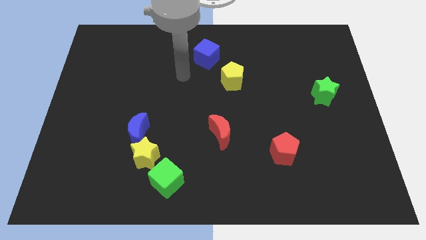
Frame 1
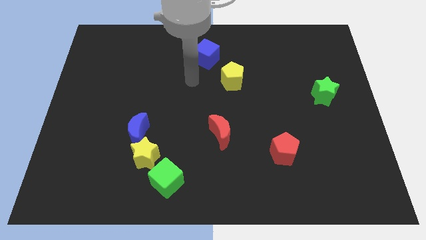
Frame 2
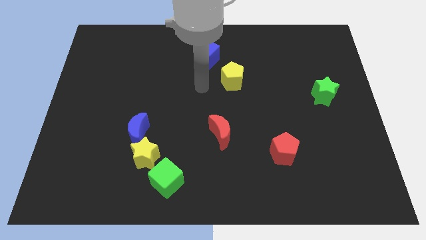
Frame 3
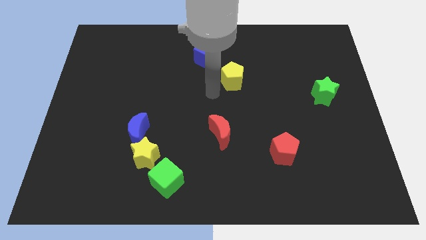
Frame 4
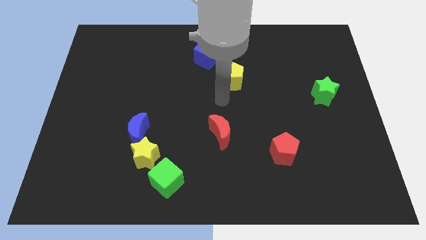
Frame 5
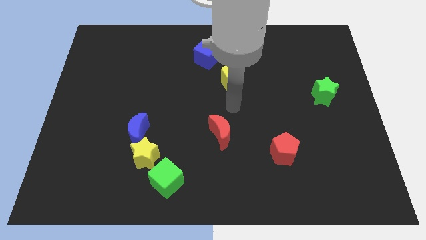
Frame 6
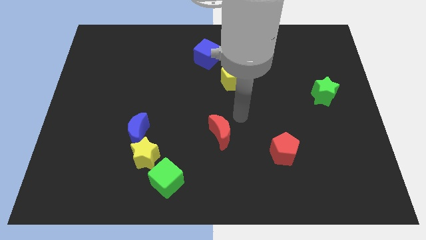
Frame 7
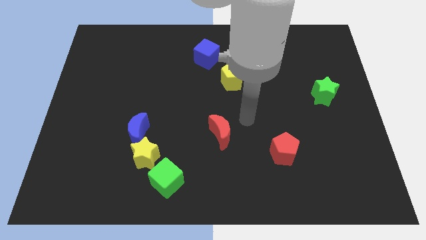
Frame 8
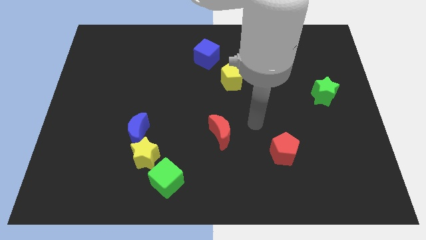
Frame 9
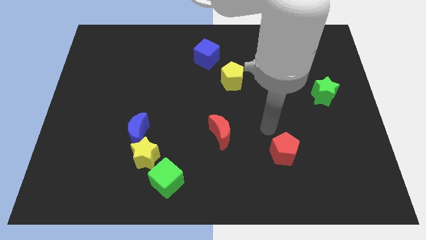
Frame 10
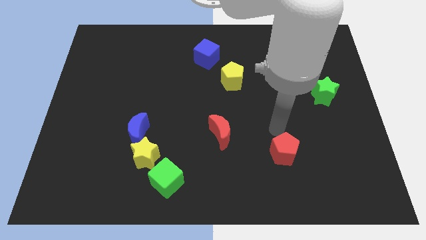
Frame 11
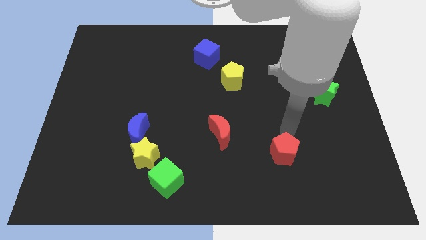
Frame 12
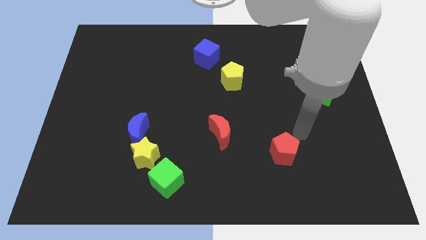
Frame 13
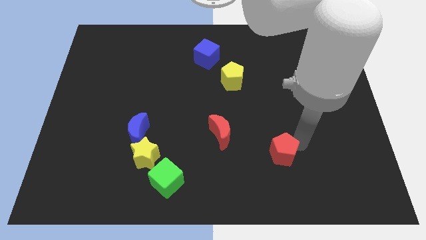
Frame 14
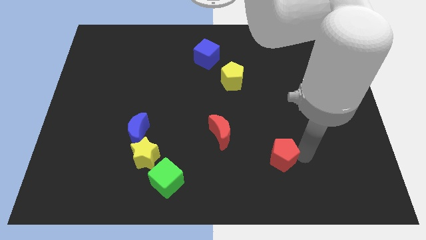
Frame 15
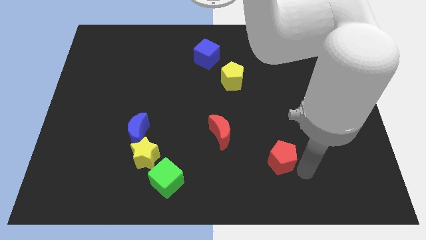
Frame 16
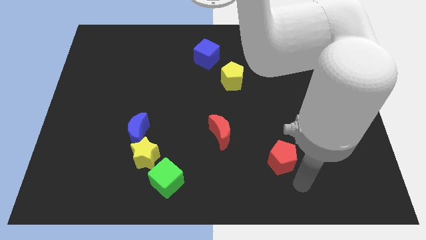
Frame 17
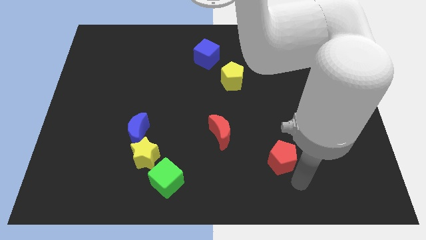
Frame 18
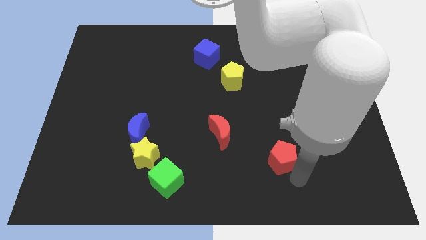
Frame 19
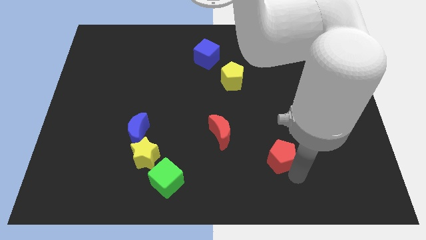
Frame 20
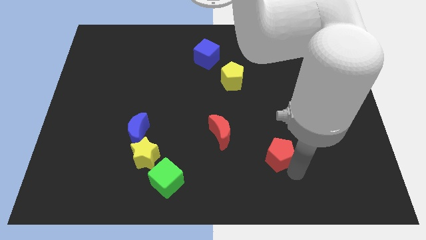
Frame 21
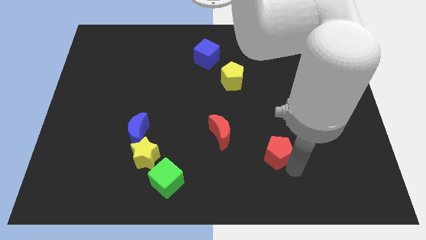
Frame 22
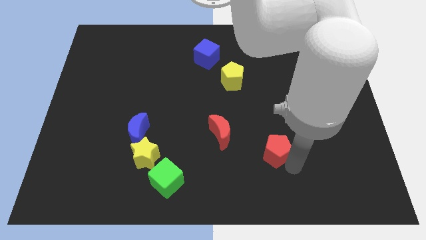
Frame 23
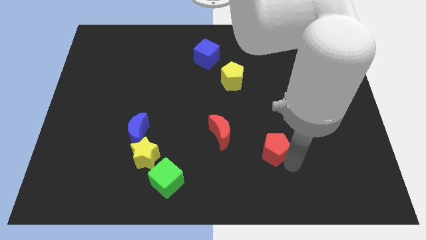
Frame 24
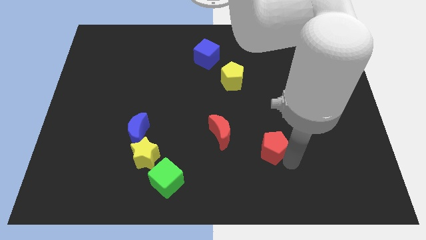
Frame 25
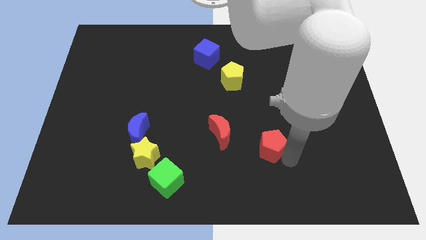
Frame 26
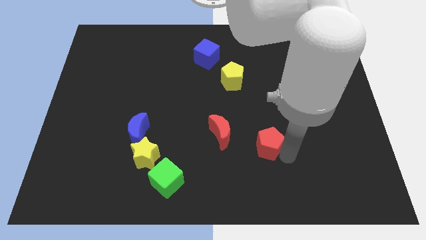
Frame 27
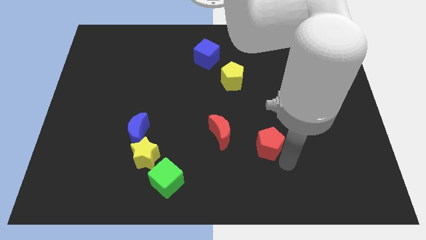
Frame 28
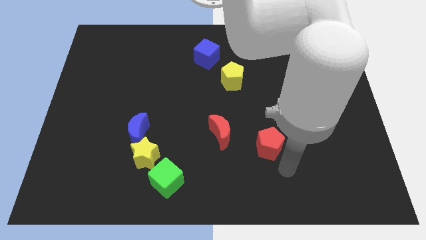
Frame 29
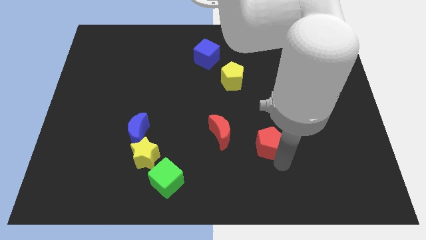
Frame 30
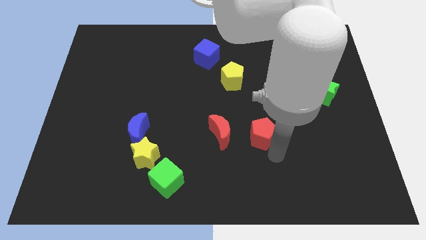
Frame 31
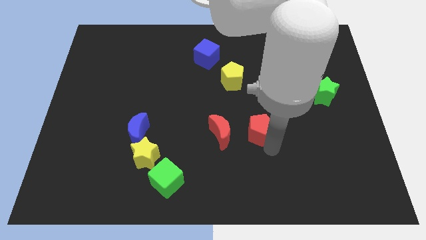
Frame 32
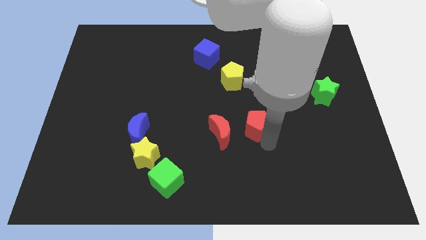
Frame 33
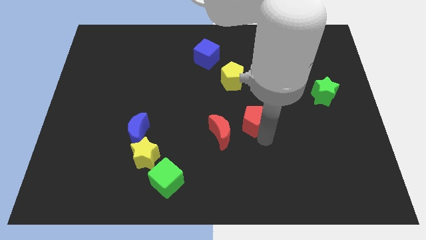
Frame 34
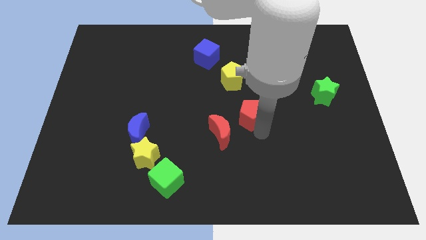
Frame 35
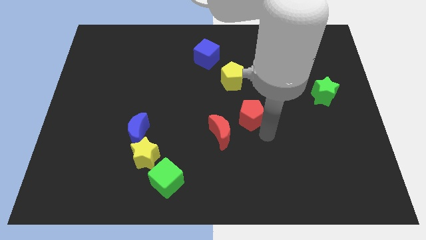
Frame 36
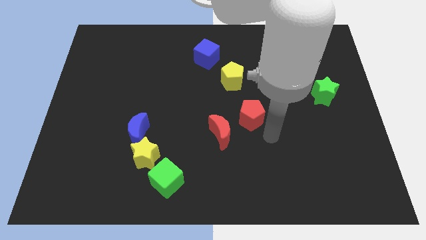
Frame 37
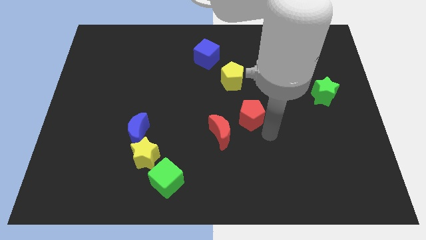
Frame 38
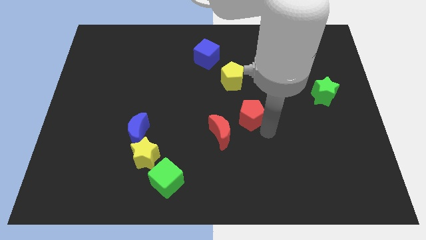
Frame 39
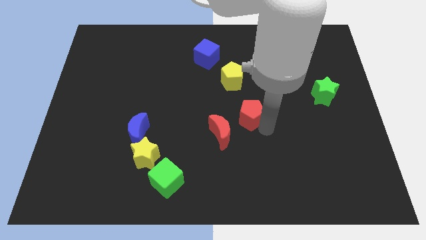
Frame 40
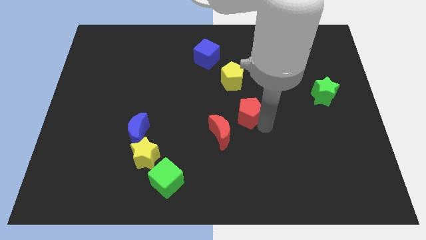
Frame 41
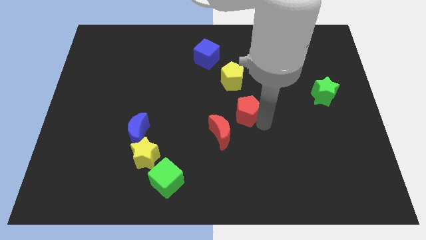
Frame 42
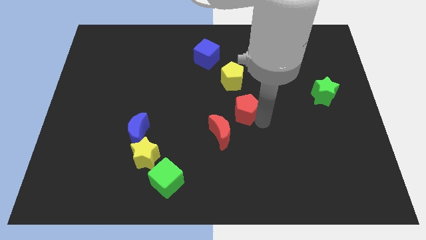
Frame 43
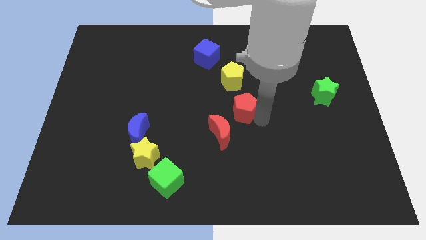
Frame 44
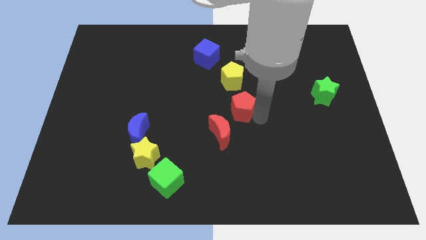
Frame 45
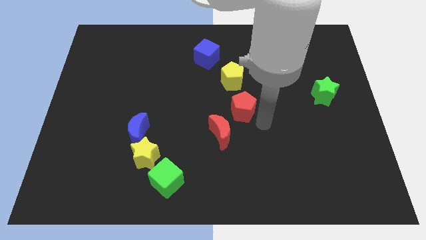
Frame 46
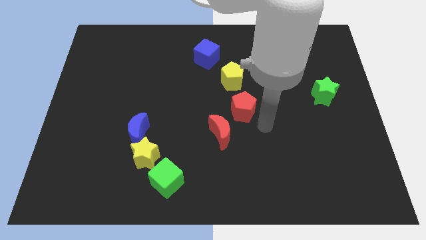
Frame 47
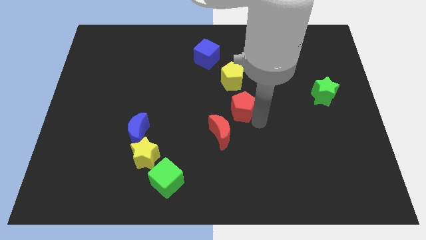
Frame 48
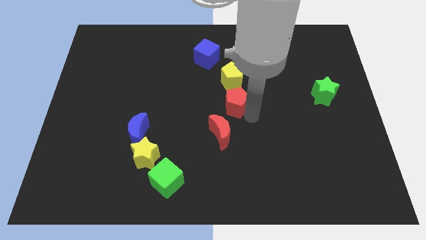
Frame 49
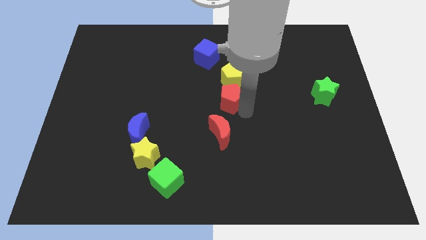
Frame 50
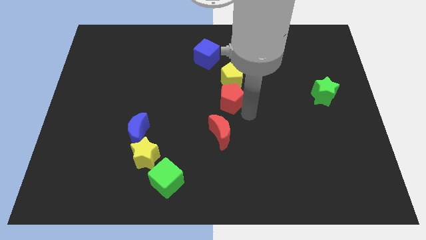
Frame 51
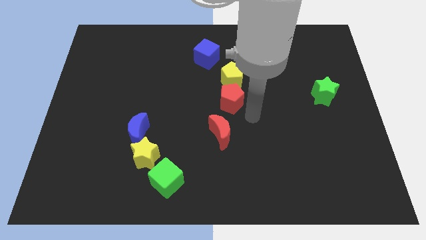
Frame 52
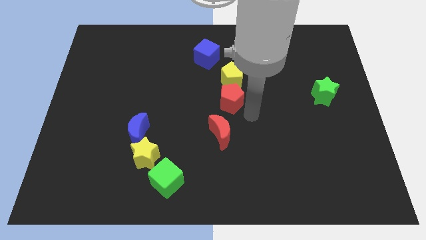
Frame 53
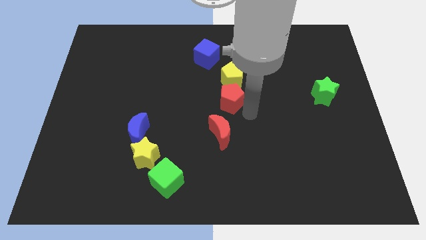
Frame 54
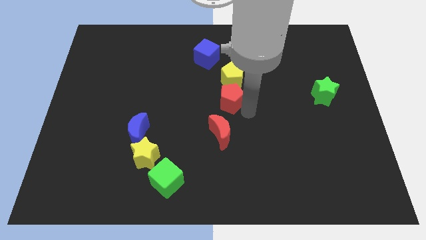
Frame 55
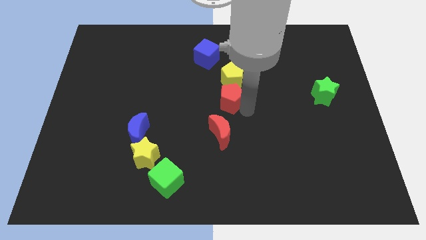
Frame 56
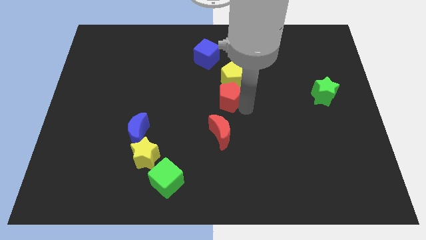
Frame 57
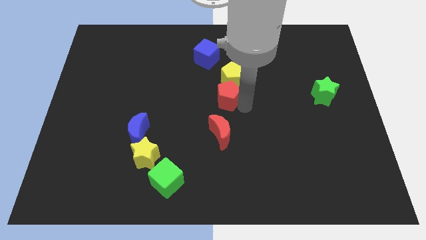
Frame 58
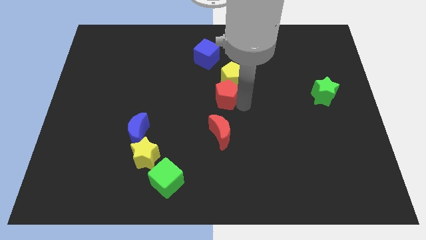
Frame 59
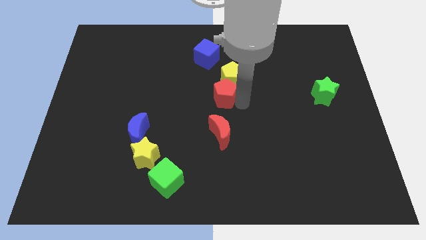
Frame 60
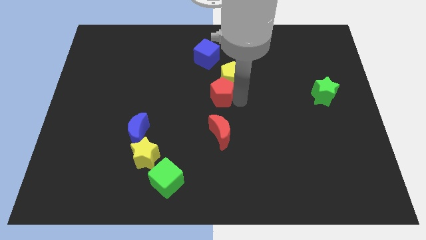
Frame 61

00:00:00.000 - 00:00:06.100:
push the red pentagon upwards and left

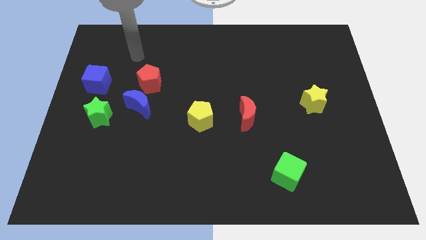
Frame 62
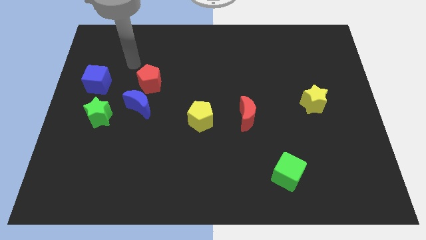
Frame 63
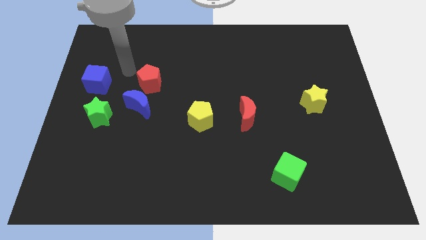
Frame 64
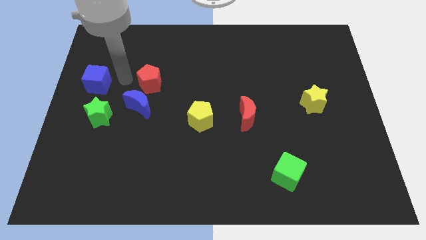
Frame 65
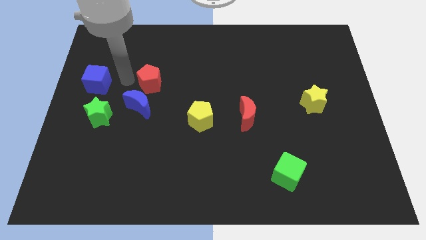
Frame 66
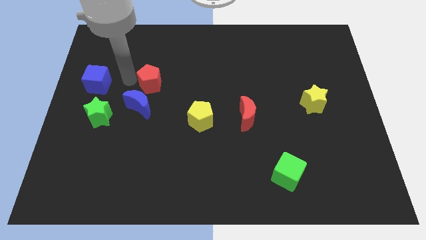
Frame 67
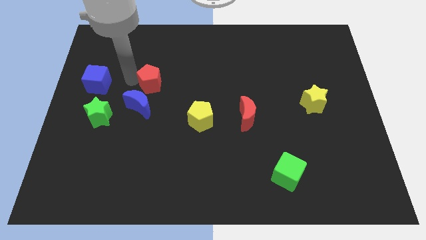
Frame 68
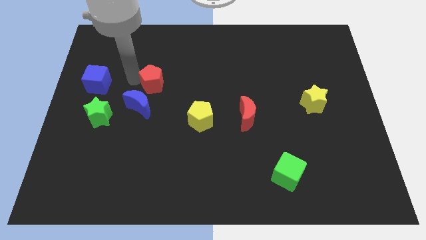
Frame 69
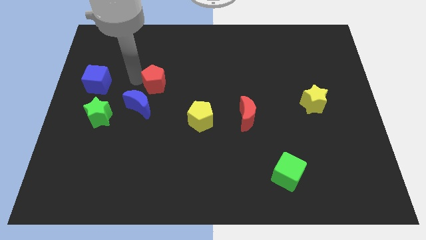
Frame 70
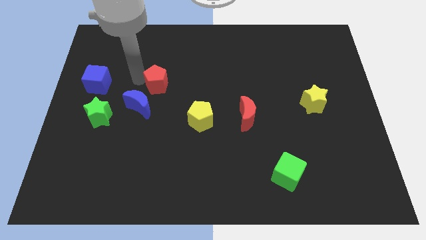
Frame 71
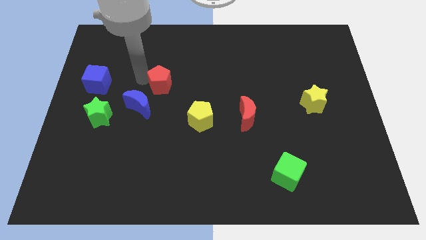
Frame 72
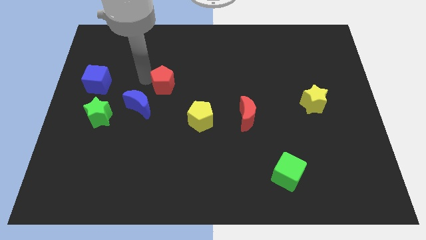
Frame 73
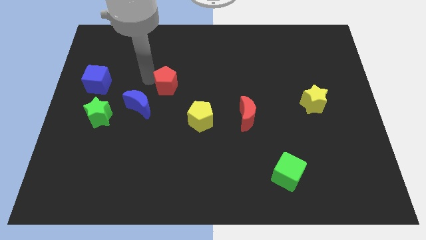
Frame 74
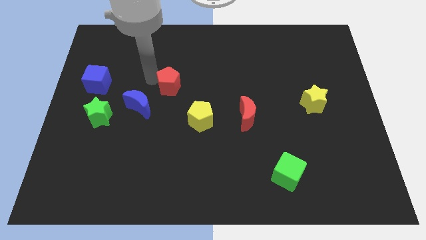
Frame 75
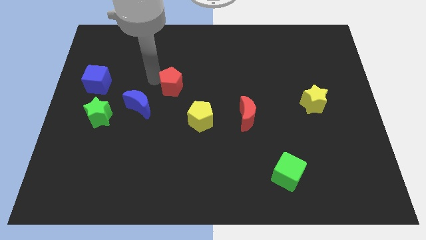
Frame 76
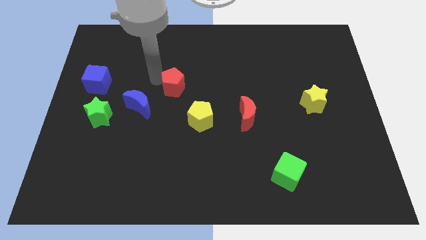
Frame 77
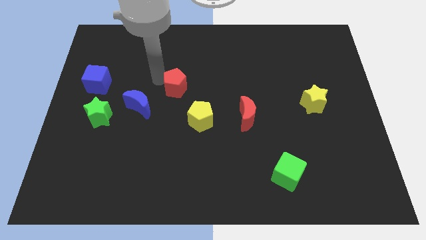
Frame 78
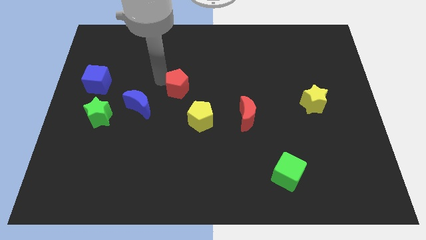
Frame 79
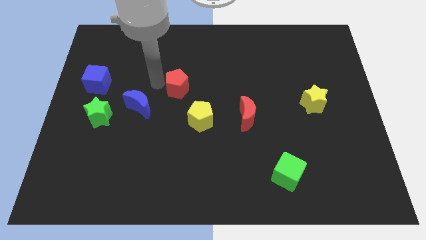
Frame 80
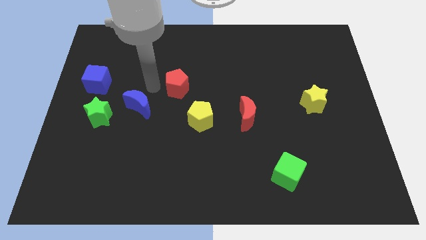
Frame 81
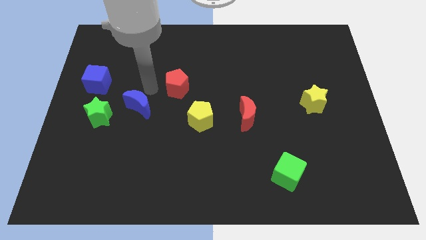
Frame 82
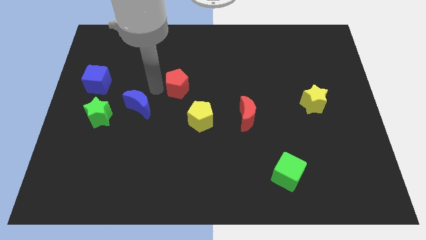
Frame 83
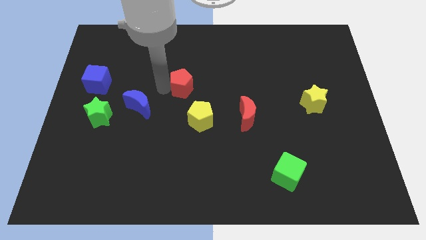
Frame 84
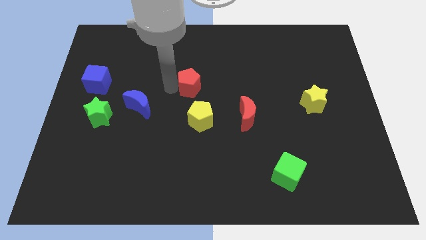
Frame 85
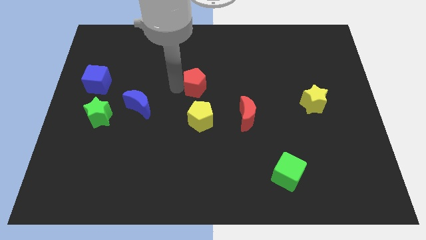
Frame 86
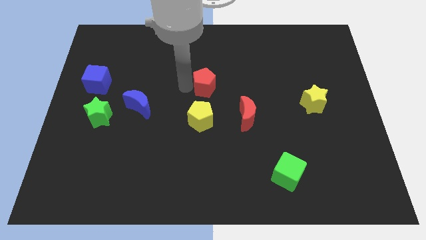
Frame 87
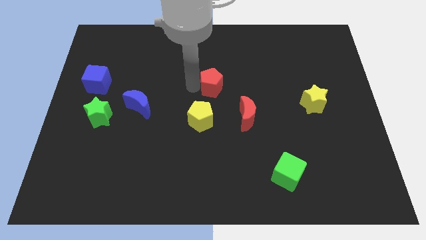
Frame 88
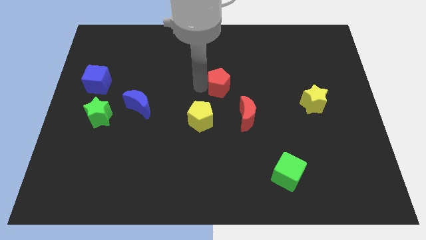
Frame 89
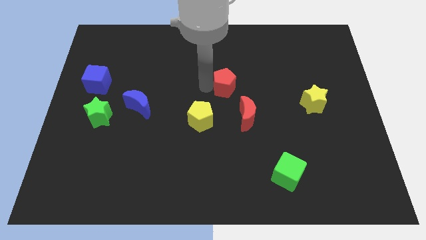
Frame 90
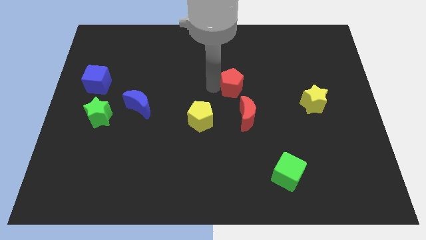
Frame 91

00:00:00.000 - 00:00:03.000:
push the red pentagon right
